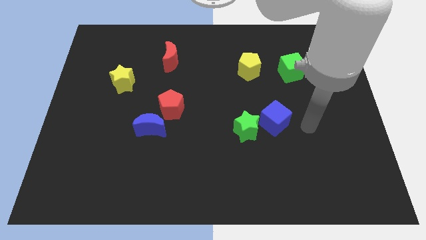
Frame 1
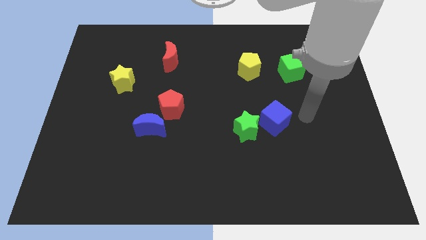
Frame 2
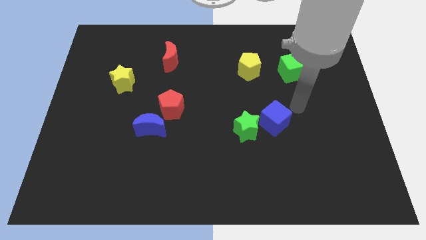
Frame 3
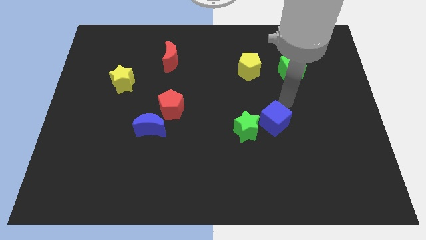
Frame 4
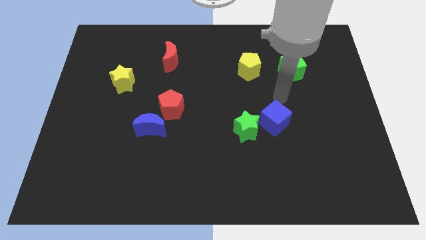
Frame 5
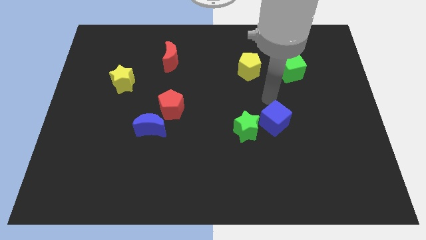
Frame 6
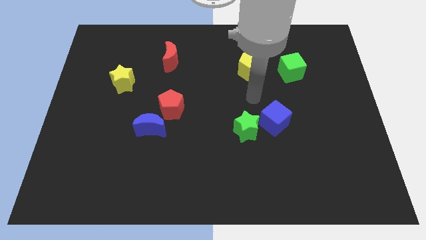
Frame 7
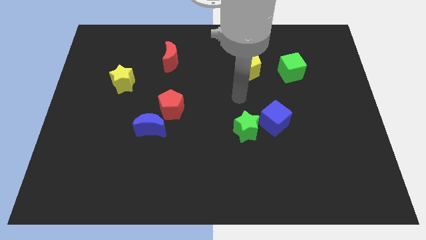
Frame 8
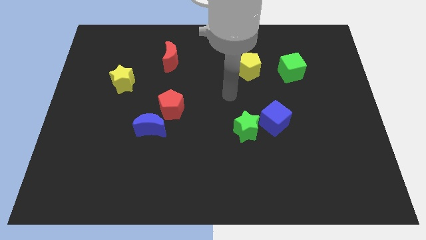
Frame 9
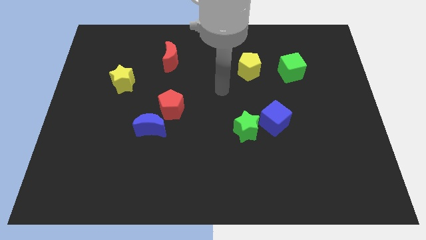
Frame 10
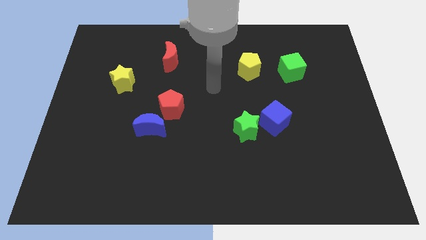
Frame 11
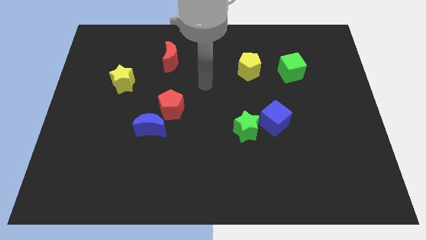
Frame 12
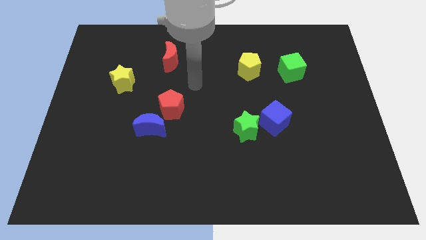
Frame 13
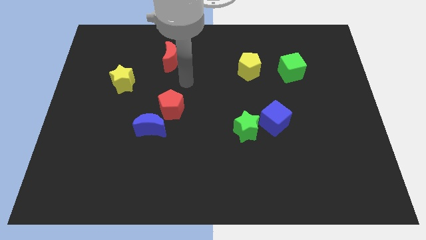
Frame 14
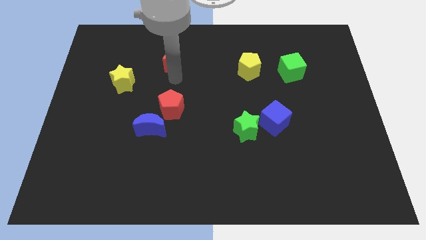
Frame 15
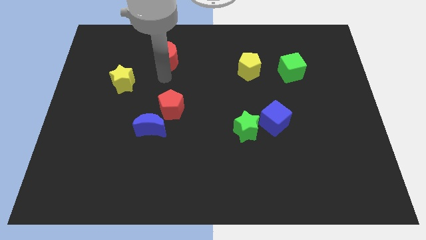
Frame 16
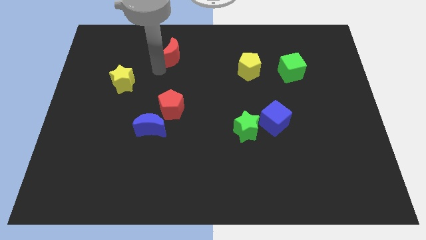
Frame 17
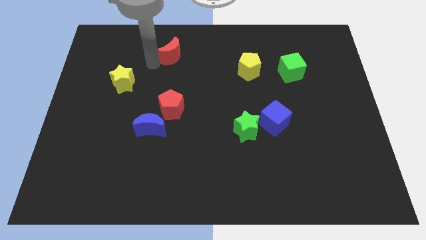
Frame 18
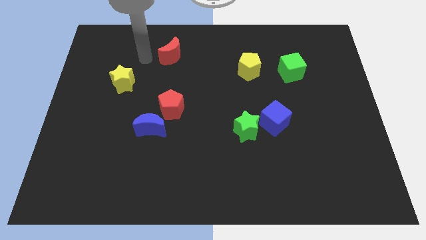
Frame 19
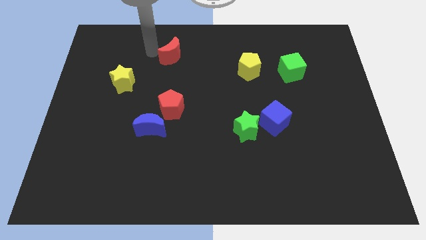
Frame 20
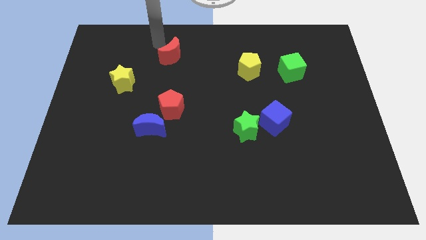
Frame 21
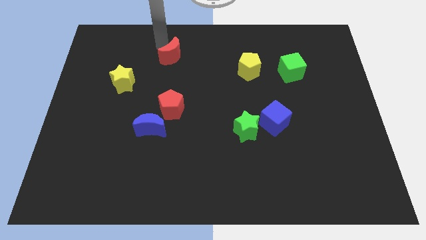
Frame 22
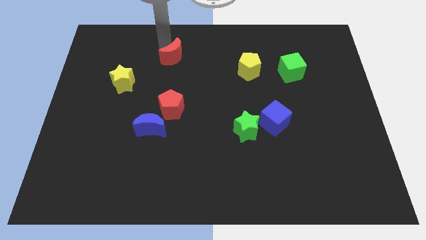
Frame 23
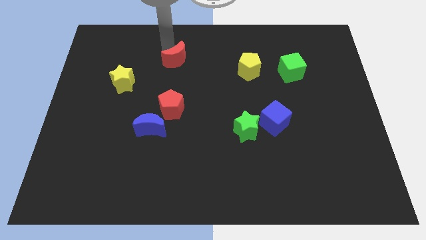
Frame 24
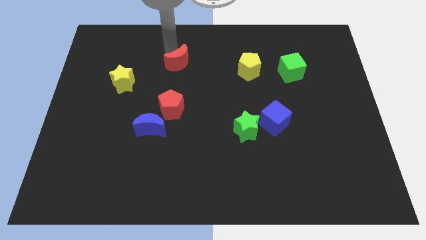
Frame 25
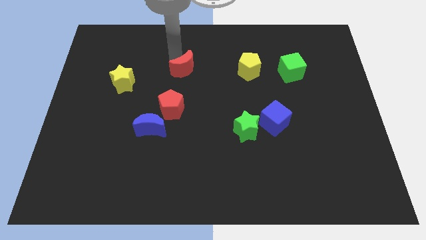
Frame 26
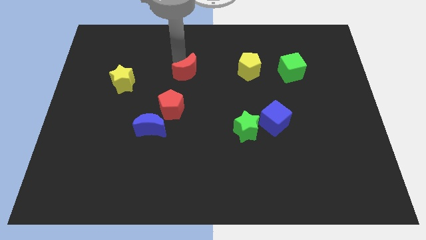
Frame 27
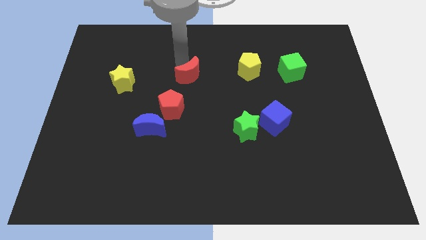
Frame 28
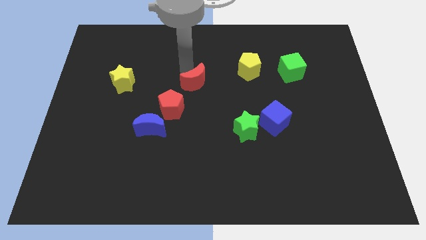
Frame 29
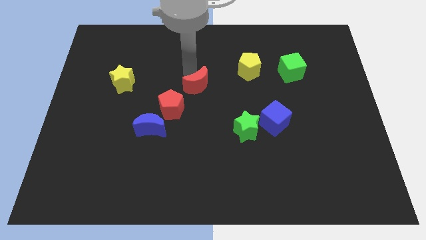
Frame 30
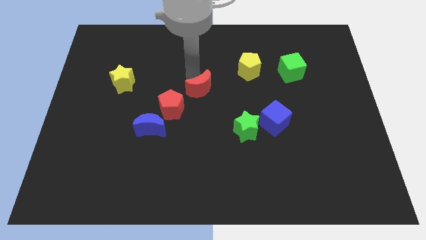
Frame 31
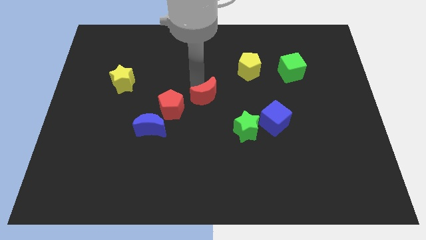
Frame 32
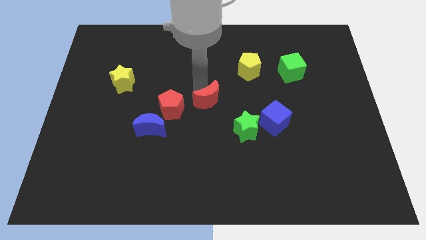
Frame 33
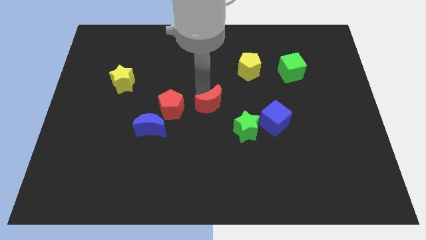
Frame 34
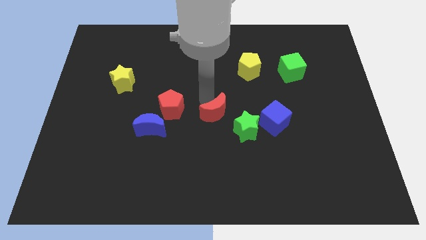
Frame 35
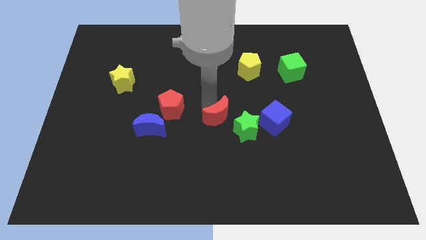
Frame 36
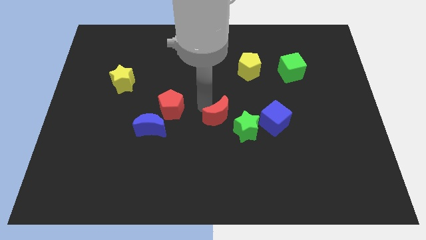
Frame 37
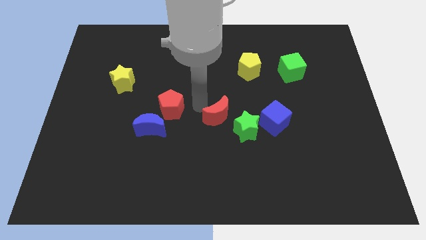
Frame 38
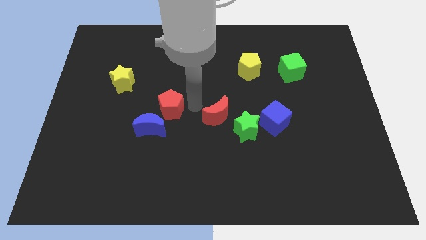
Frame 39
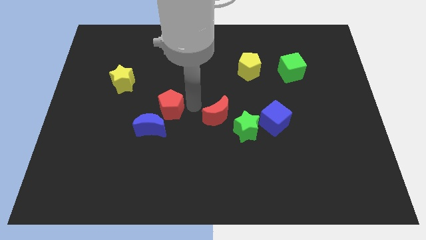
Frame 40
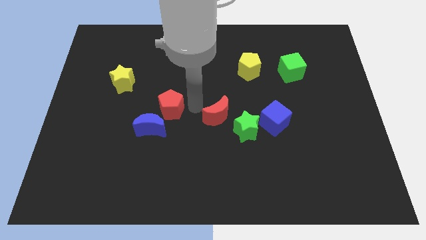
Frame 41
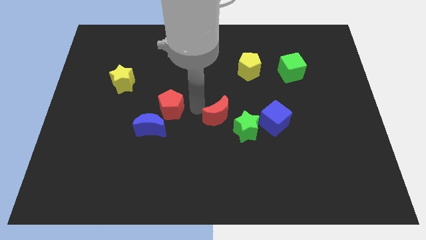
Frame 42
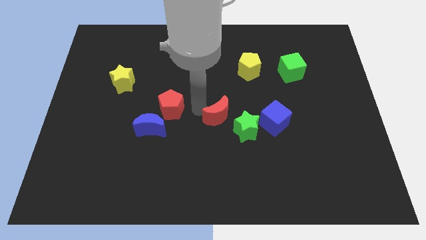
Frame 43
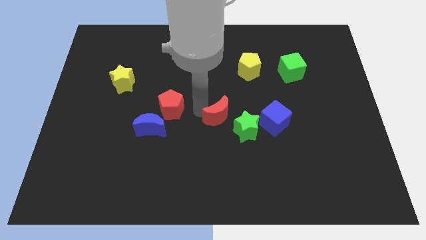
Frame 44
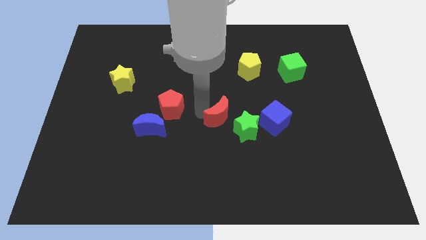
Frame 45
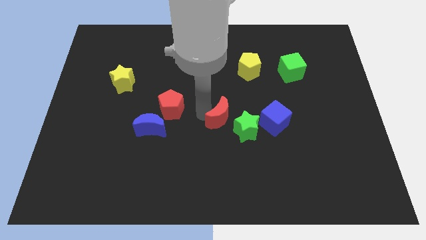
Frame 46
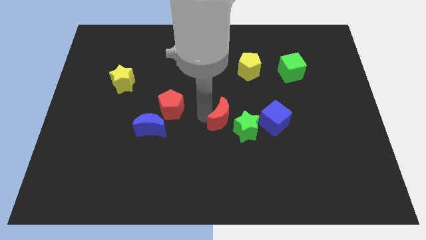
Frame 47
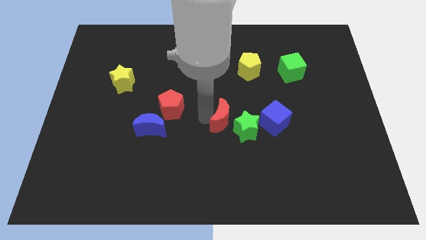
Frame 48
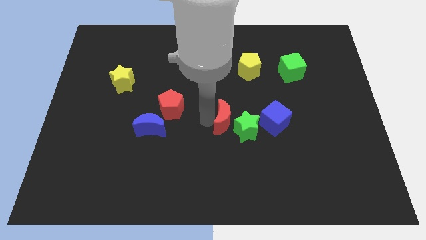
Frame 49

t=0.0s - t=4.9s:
push the red moon close to the green star

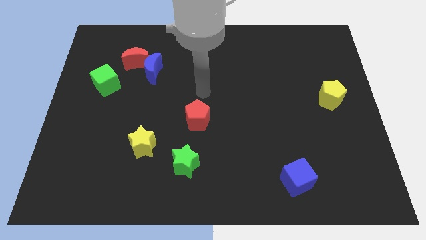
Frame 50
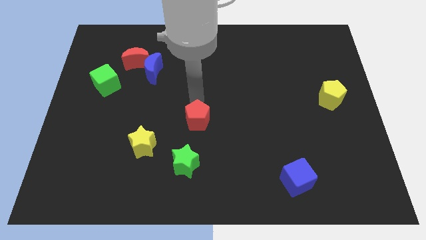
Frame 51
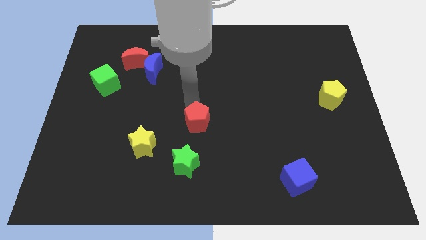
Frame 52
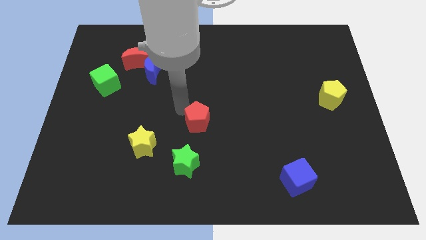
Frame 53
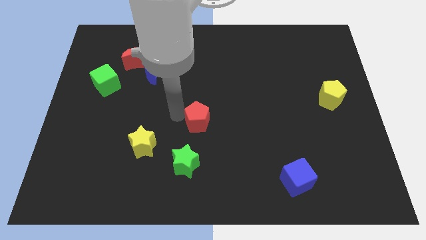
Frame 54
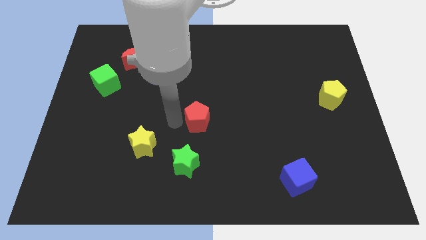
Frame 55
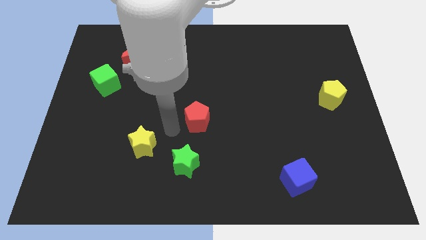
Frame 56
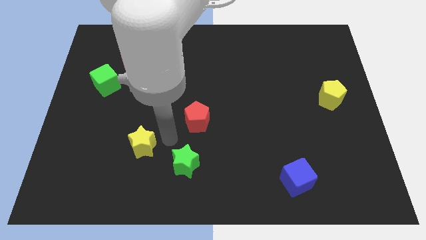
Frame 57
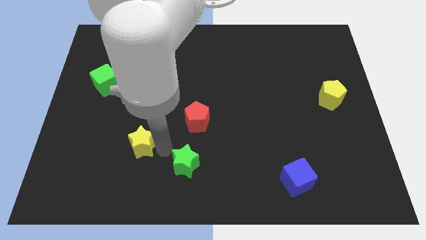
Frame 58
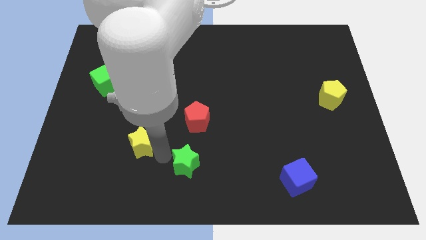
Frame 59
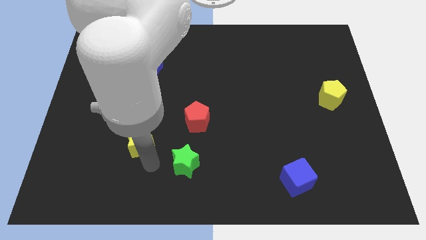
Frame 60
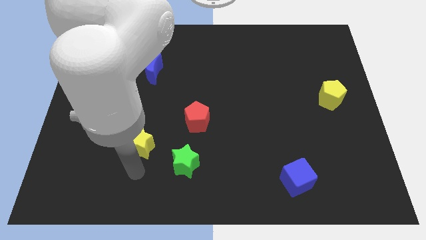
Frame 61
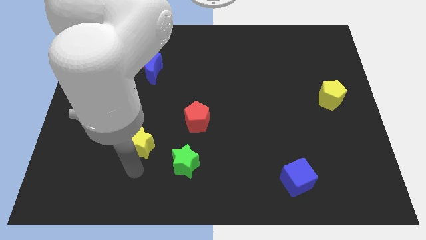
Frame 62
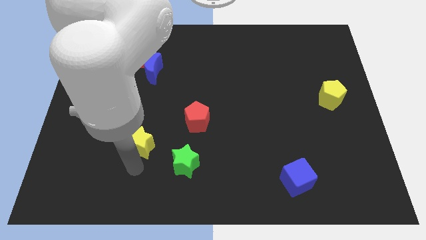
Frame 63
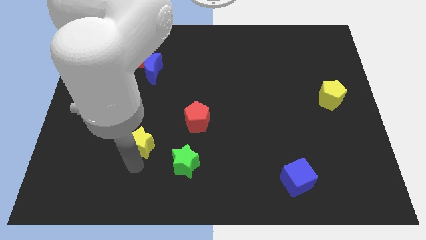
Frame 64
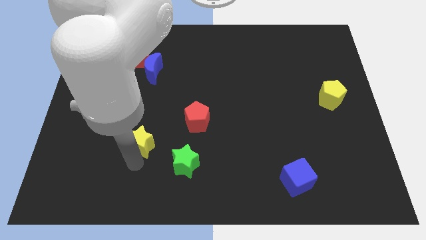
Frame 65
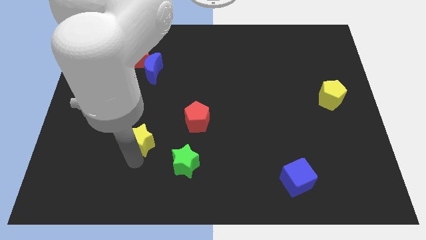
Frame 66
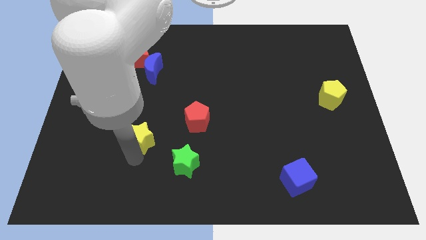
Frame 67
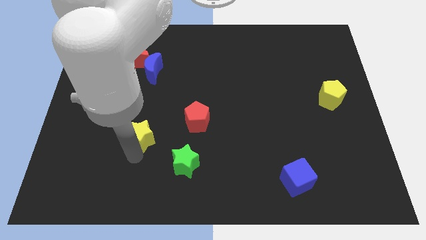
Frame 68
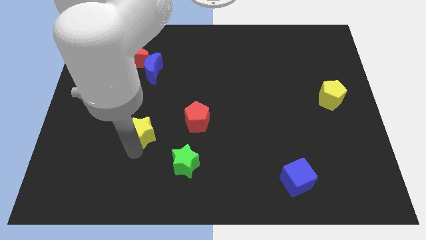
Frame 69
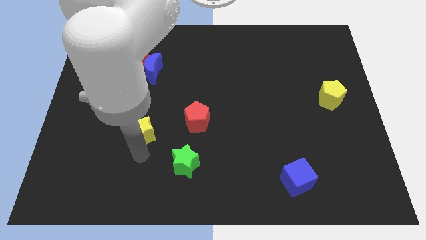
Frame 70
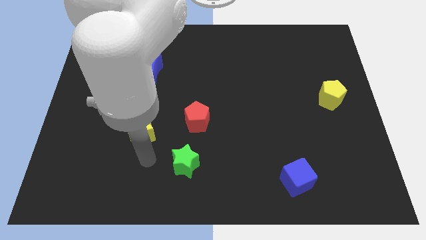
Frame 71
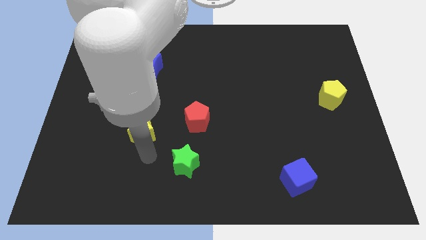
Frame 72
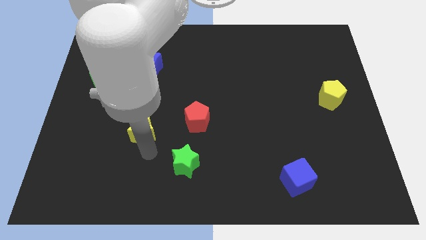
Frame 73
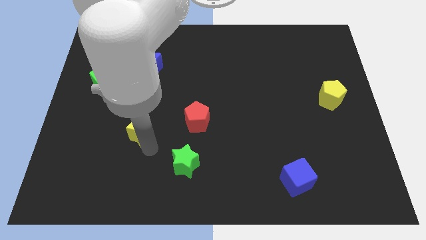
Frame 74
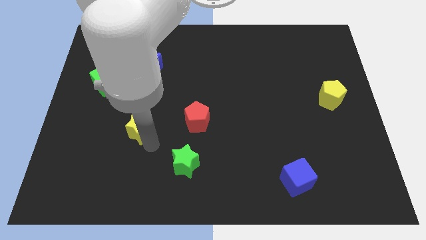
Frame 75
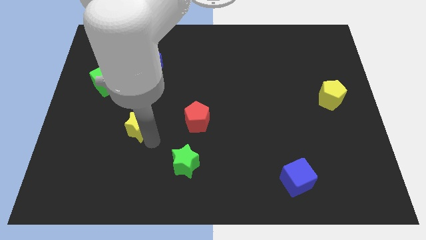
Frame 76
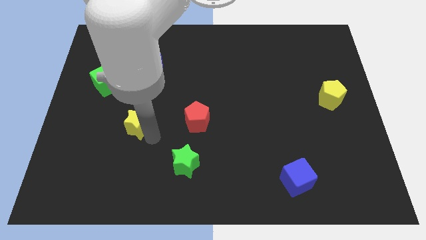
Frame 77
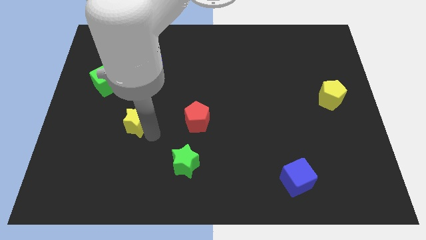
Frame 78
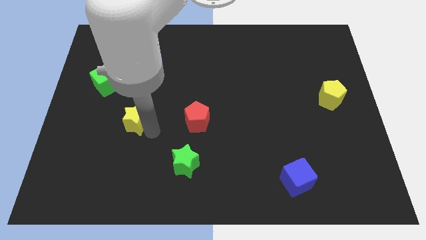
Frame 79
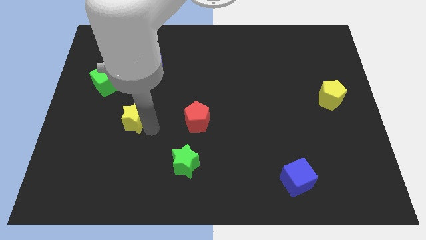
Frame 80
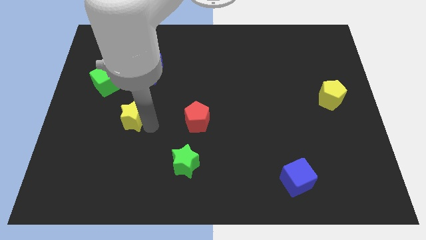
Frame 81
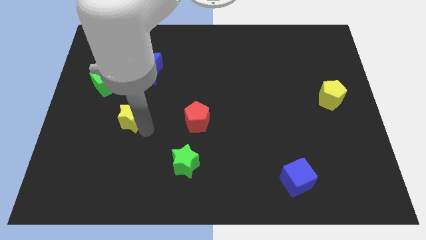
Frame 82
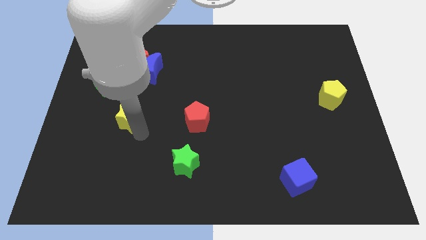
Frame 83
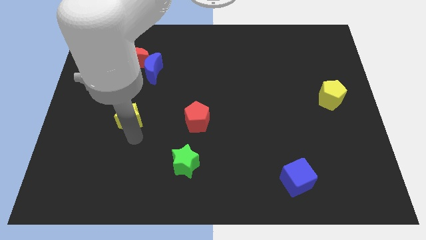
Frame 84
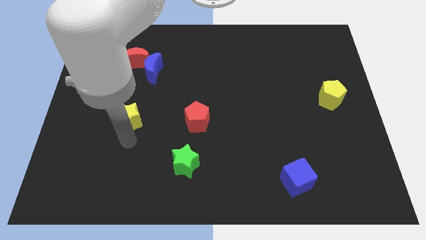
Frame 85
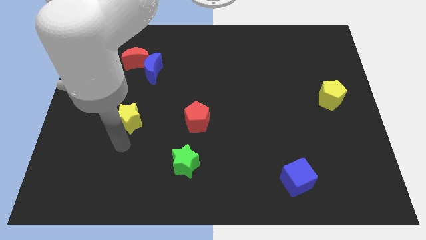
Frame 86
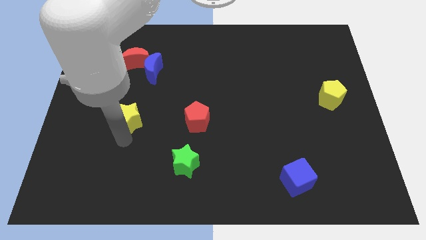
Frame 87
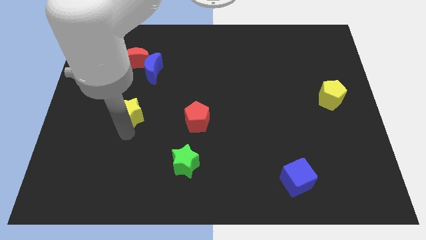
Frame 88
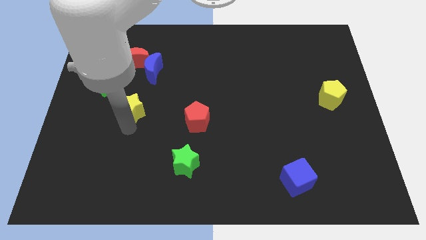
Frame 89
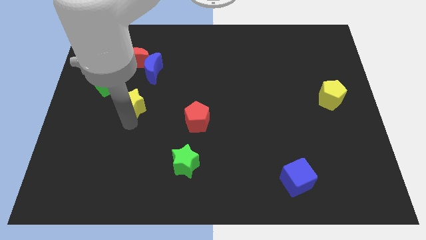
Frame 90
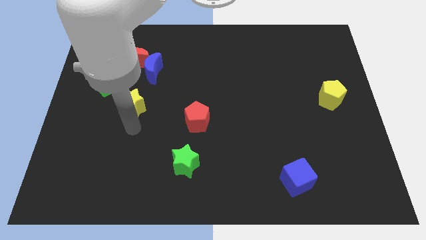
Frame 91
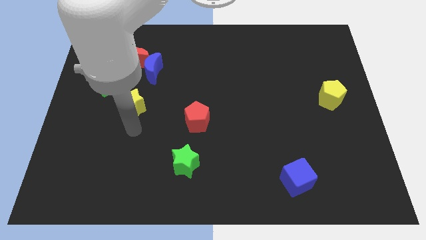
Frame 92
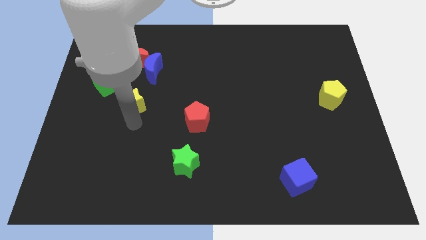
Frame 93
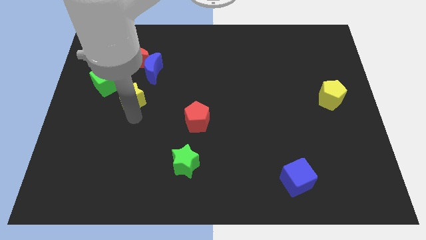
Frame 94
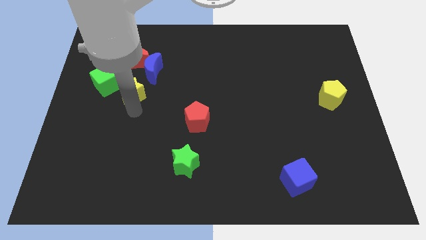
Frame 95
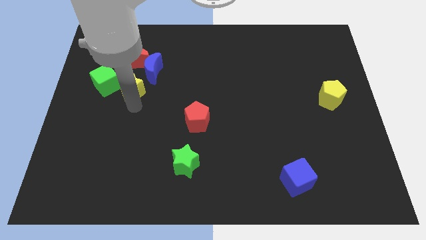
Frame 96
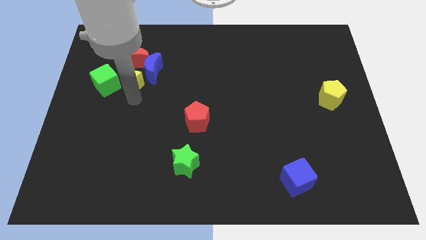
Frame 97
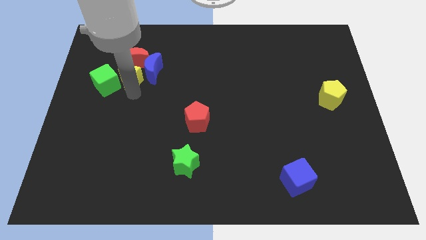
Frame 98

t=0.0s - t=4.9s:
push the yellow star towards the red moon
